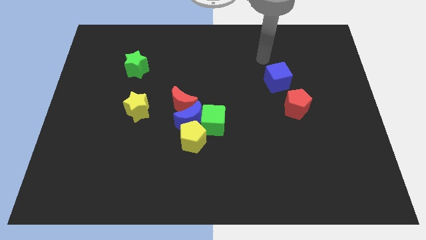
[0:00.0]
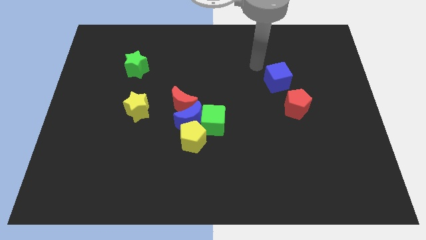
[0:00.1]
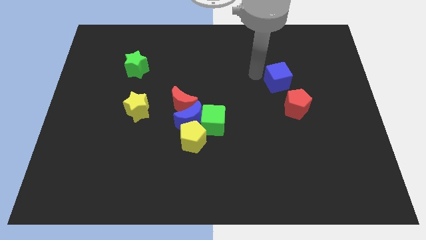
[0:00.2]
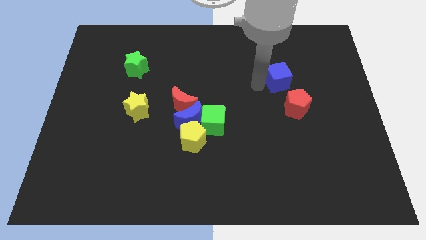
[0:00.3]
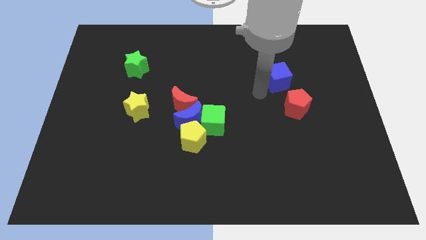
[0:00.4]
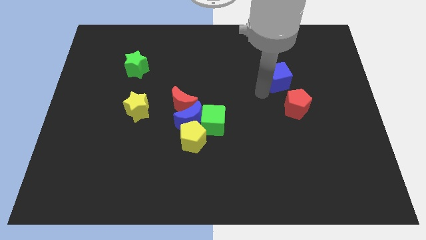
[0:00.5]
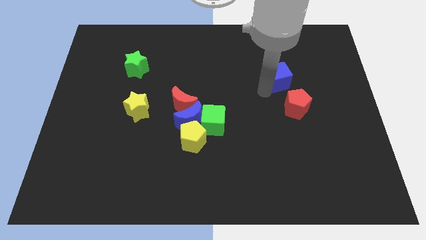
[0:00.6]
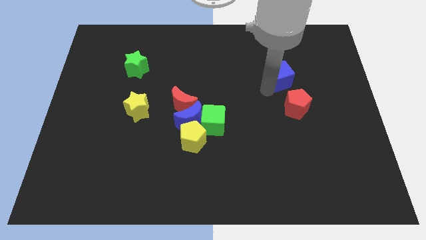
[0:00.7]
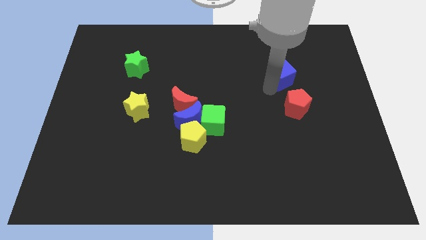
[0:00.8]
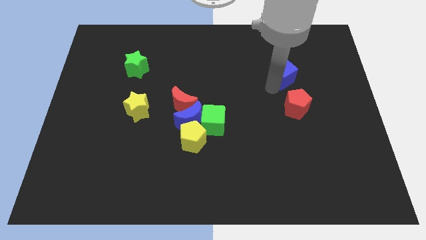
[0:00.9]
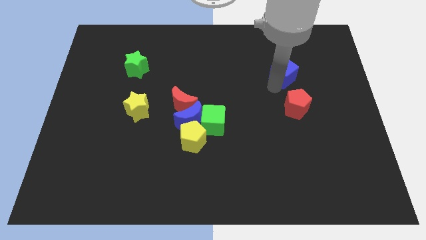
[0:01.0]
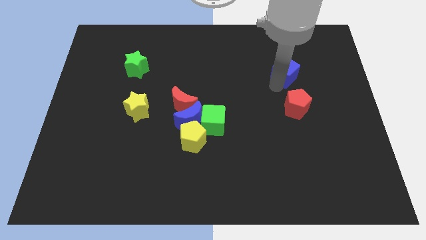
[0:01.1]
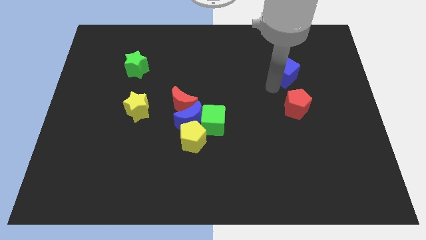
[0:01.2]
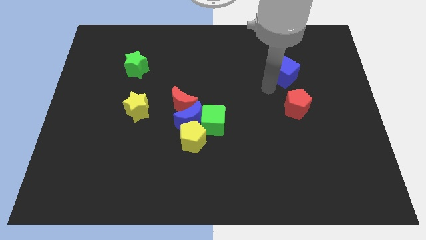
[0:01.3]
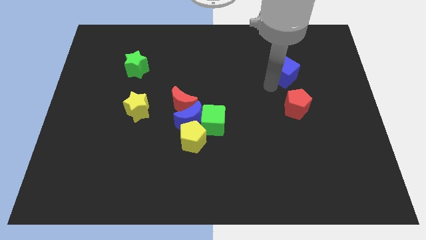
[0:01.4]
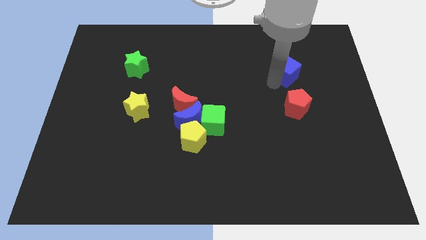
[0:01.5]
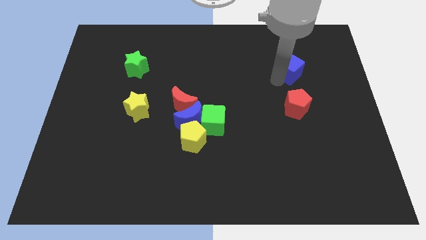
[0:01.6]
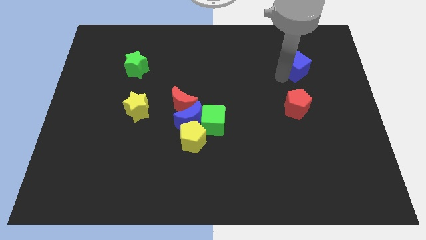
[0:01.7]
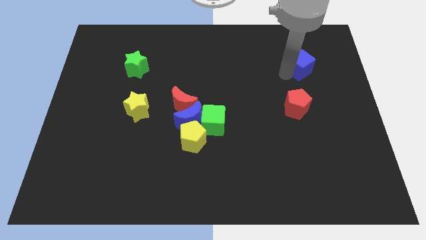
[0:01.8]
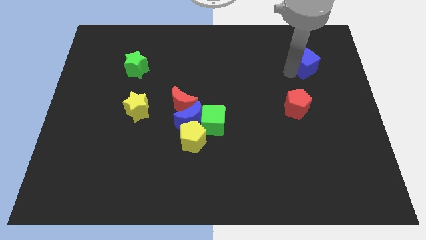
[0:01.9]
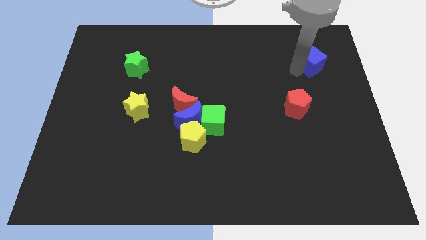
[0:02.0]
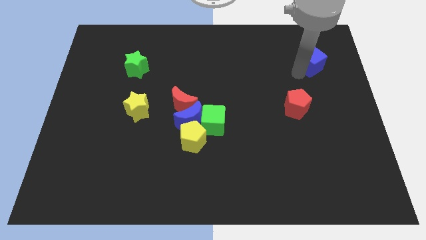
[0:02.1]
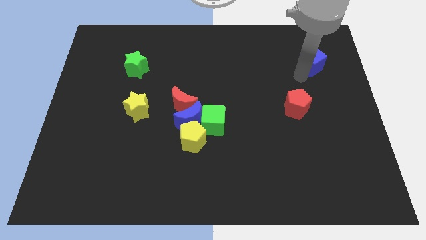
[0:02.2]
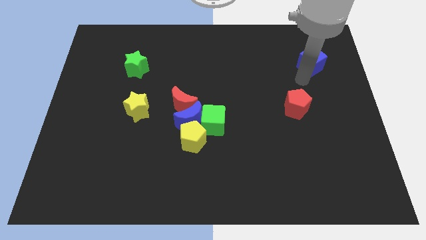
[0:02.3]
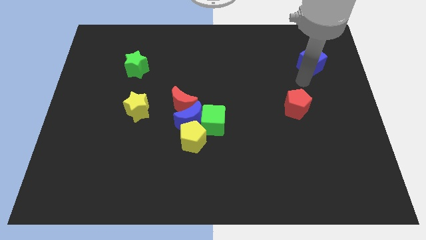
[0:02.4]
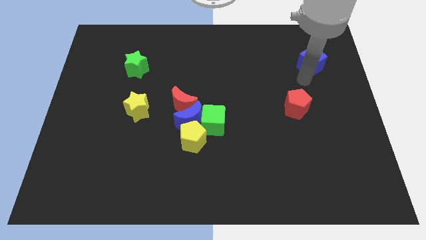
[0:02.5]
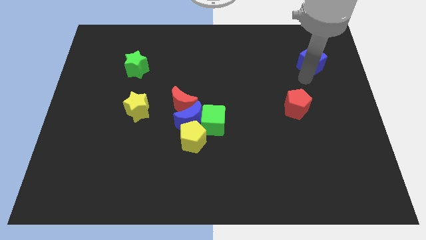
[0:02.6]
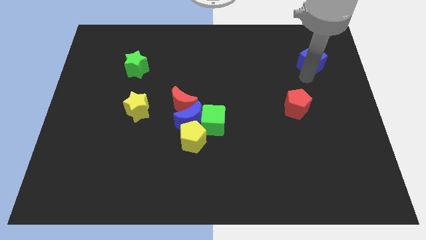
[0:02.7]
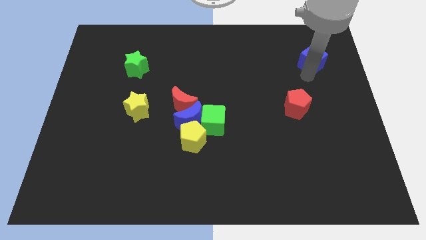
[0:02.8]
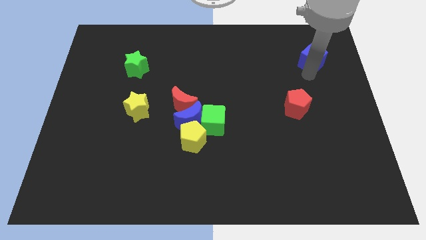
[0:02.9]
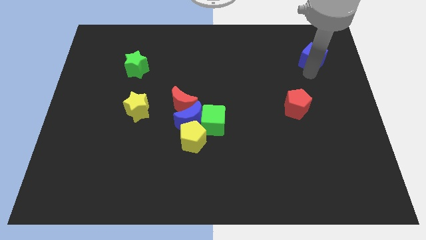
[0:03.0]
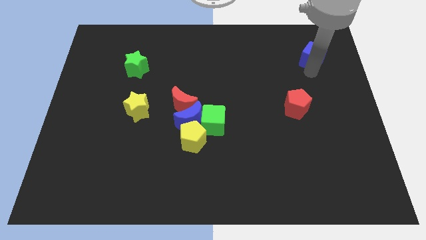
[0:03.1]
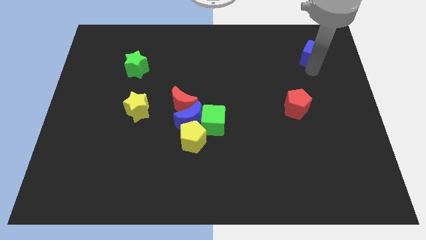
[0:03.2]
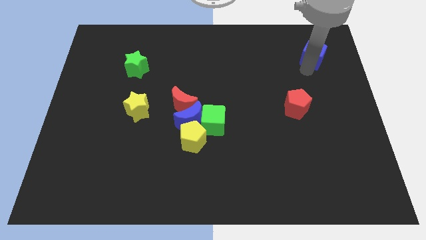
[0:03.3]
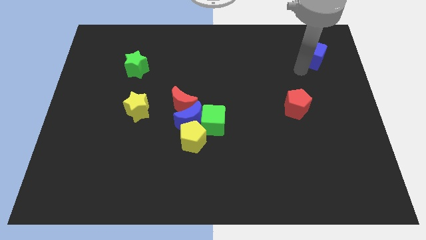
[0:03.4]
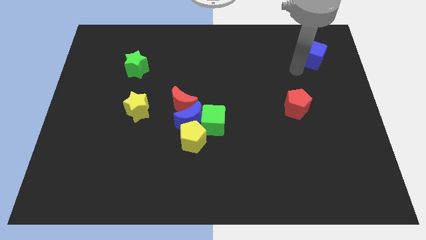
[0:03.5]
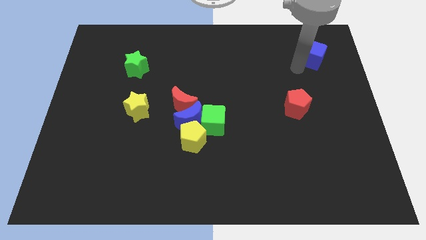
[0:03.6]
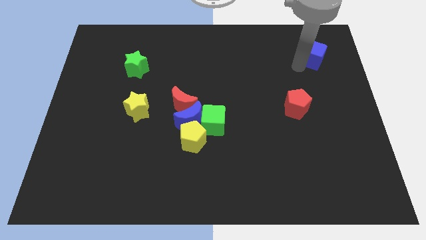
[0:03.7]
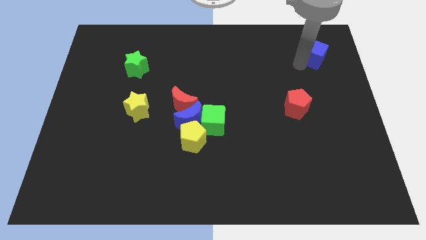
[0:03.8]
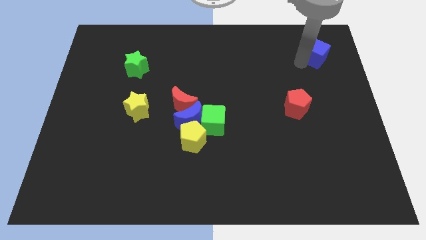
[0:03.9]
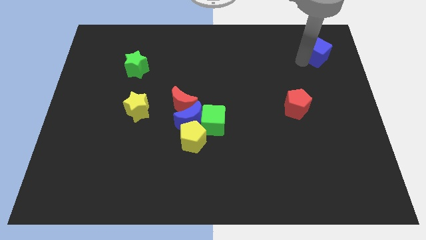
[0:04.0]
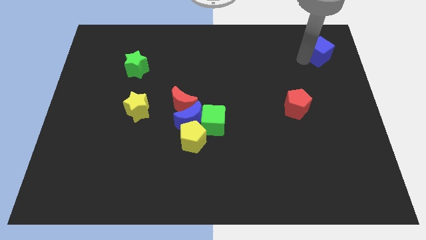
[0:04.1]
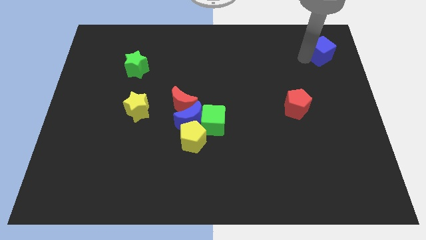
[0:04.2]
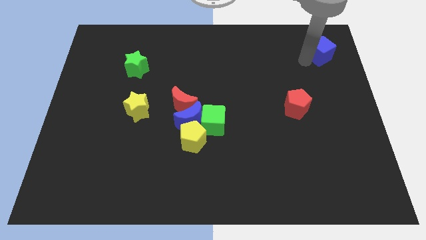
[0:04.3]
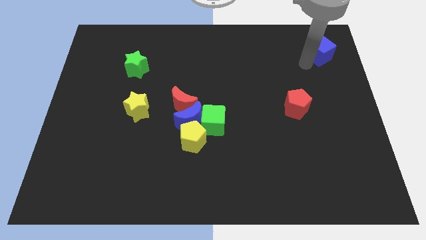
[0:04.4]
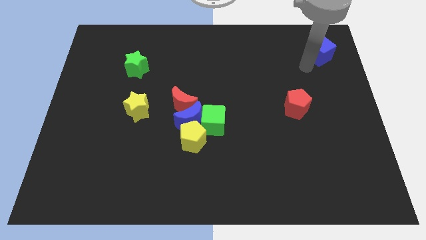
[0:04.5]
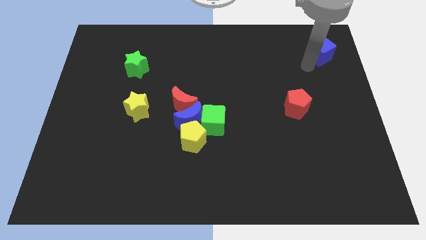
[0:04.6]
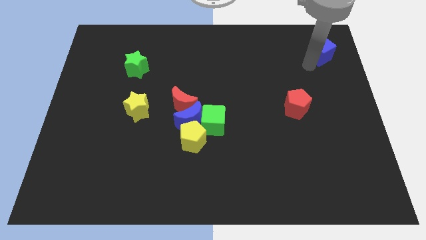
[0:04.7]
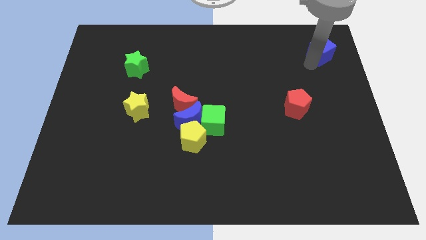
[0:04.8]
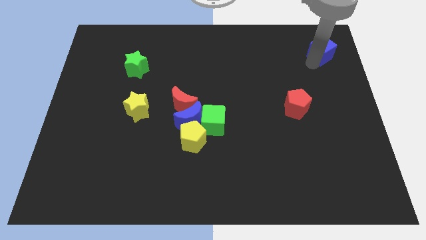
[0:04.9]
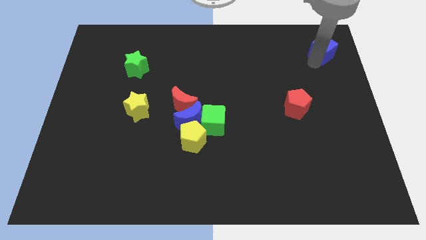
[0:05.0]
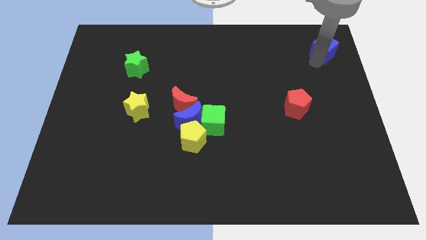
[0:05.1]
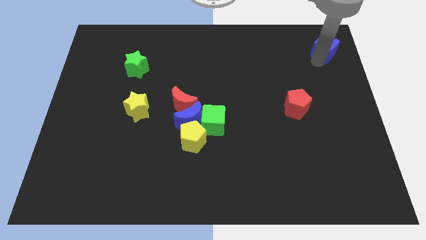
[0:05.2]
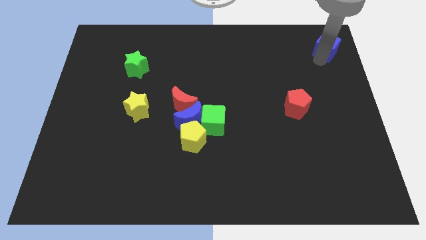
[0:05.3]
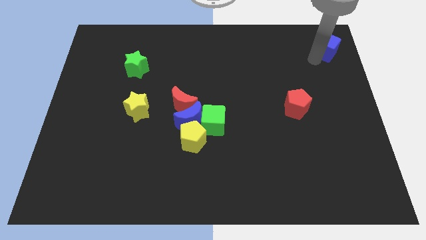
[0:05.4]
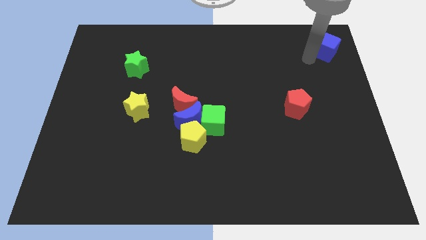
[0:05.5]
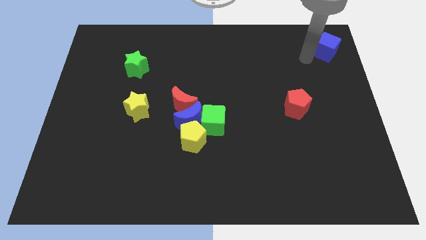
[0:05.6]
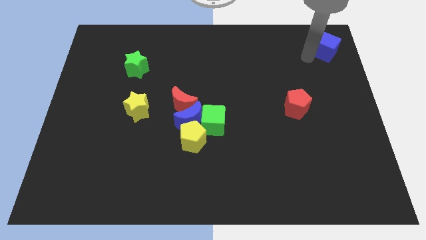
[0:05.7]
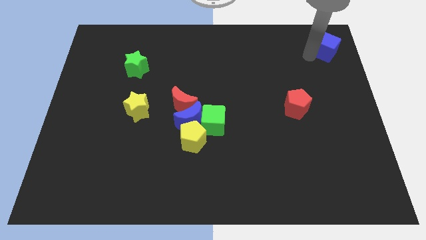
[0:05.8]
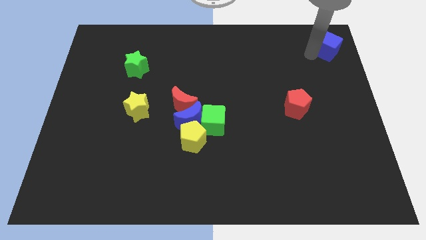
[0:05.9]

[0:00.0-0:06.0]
slide the blue cube to the top right of the board
